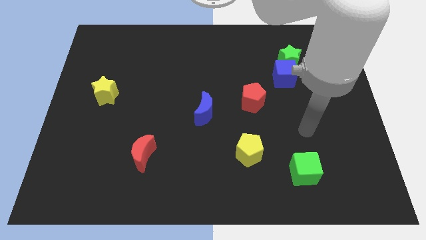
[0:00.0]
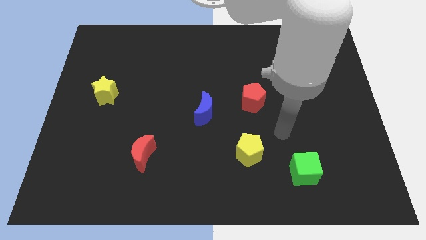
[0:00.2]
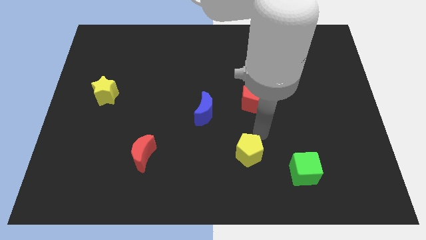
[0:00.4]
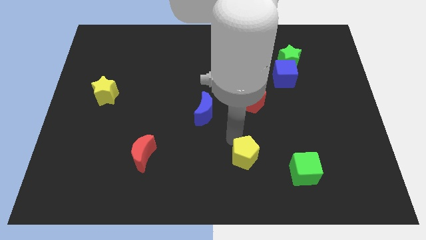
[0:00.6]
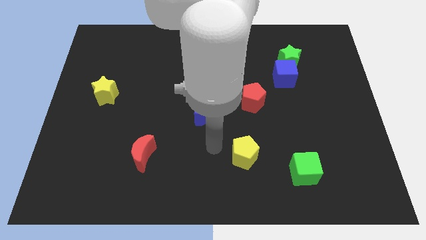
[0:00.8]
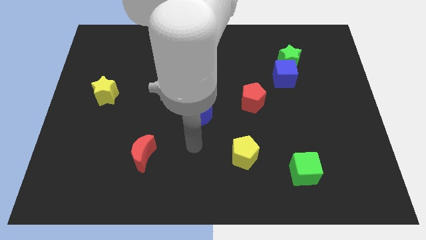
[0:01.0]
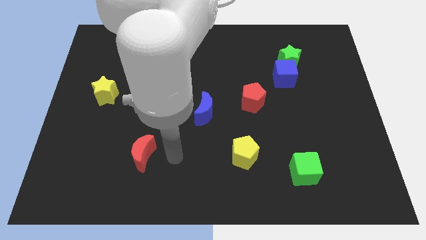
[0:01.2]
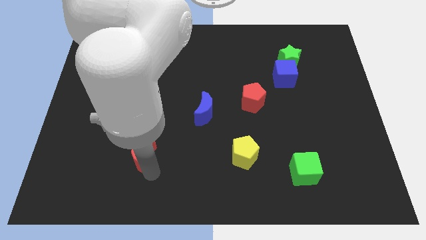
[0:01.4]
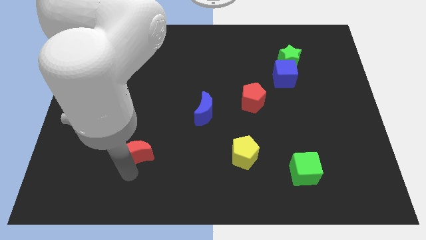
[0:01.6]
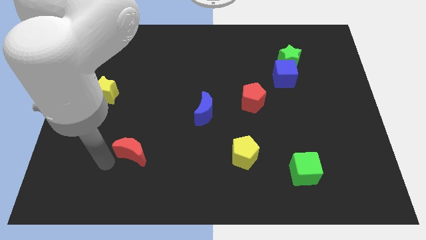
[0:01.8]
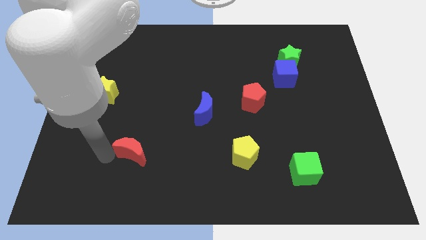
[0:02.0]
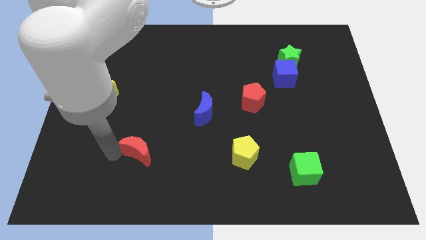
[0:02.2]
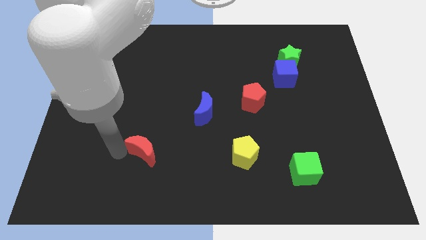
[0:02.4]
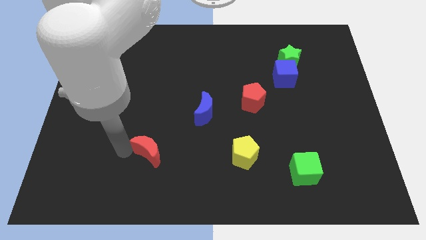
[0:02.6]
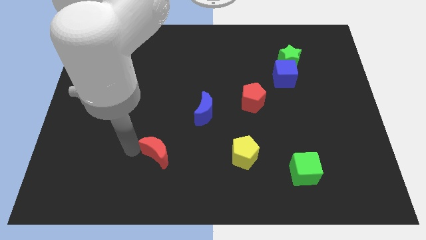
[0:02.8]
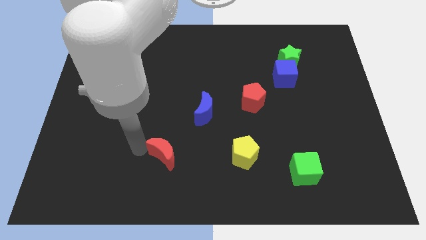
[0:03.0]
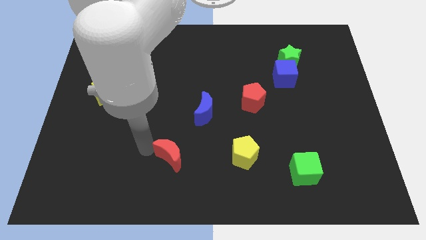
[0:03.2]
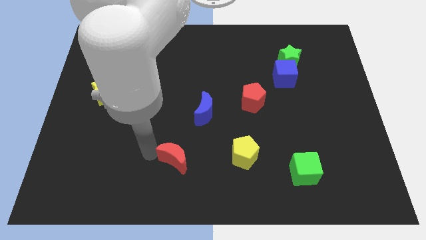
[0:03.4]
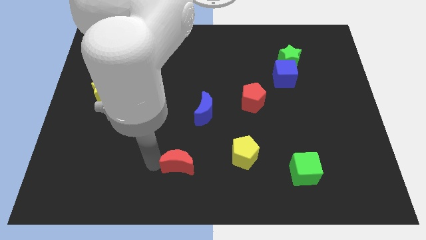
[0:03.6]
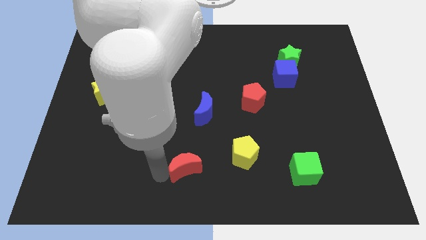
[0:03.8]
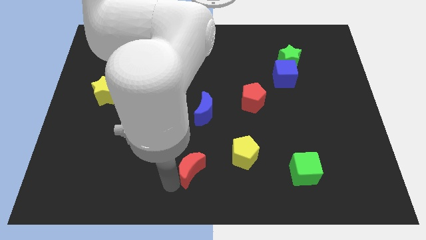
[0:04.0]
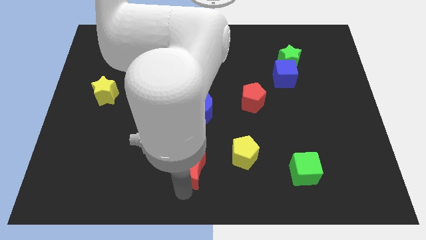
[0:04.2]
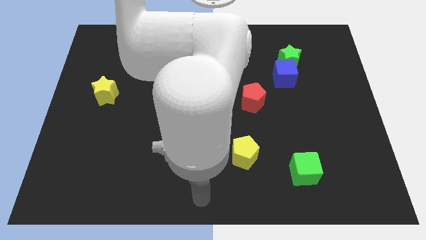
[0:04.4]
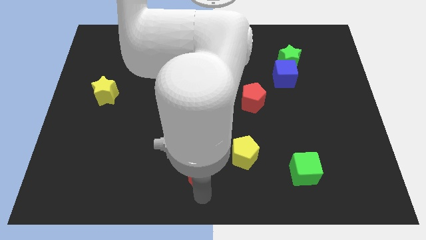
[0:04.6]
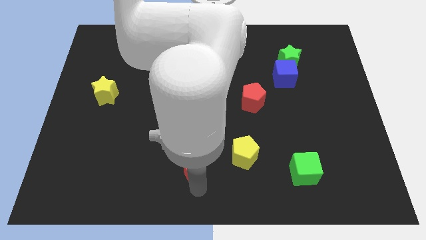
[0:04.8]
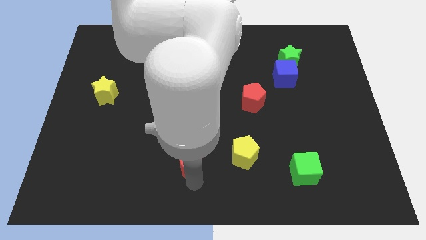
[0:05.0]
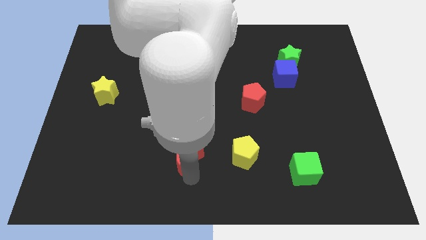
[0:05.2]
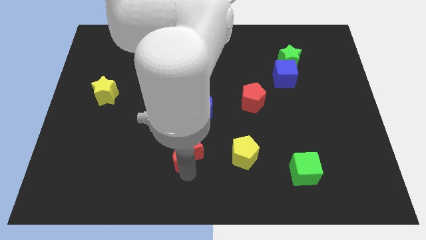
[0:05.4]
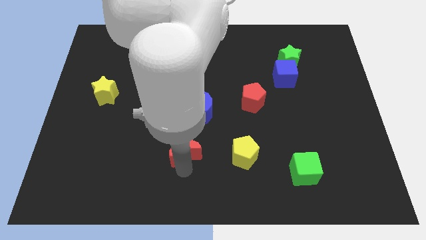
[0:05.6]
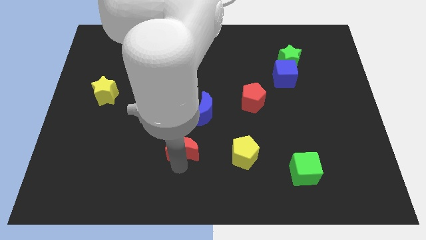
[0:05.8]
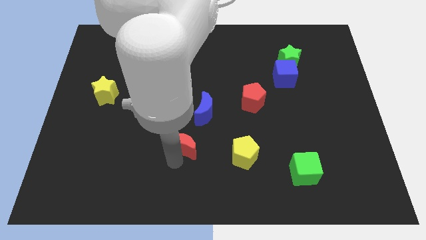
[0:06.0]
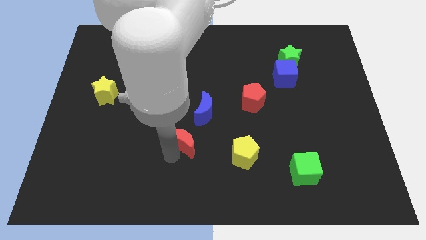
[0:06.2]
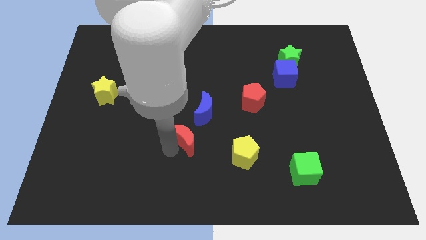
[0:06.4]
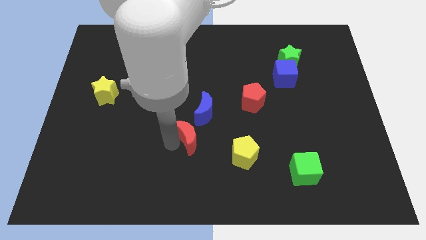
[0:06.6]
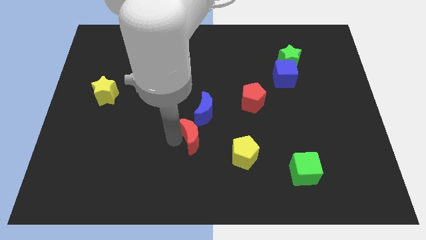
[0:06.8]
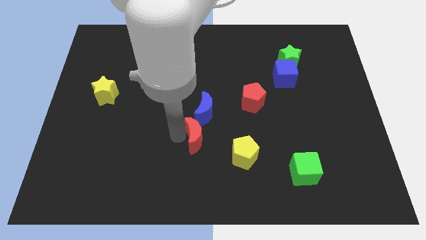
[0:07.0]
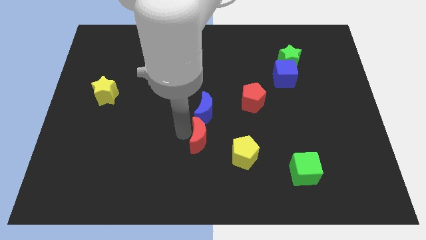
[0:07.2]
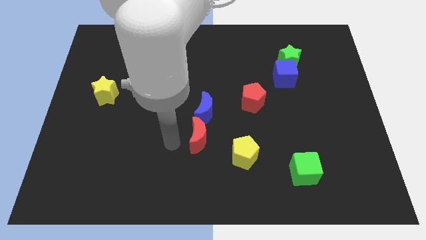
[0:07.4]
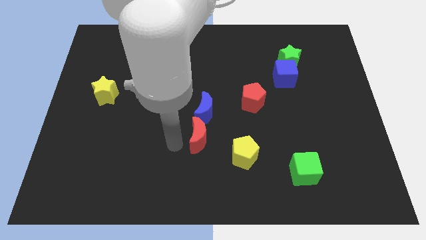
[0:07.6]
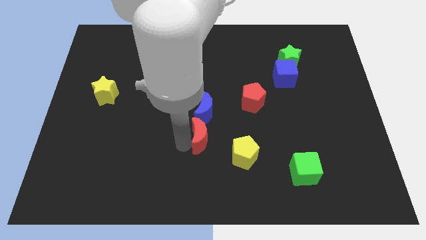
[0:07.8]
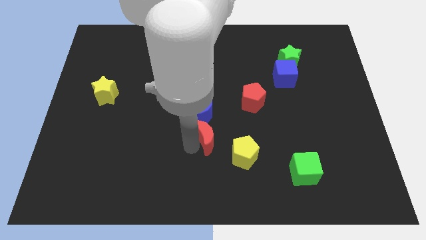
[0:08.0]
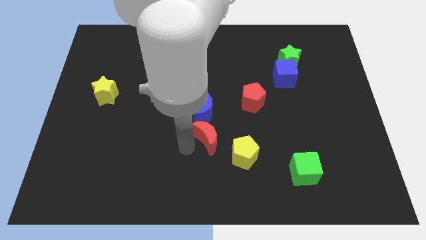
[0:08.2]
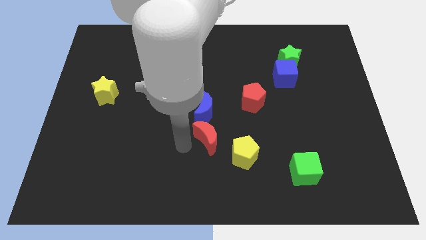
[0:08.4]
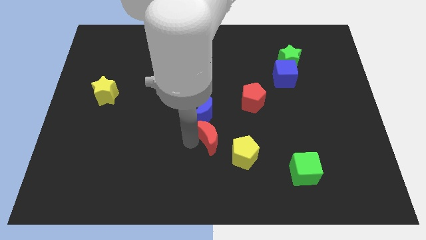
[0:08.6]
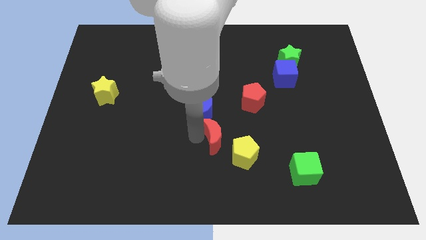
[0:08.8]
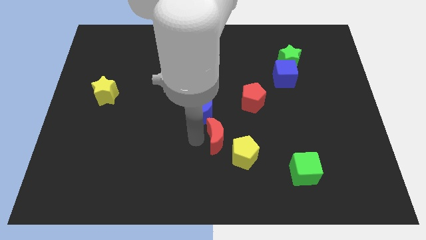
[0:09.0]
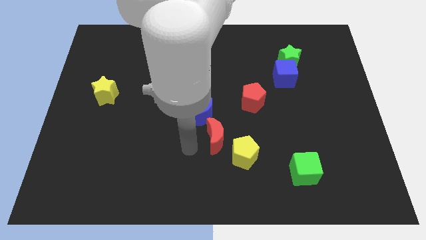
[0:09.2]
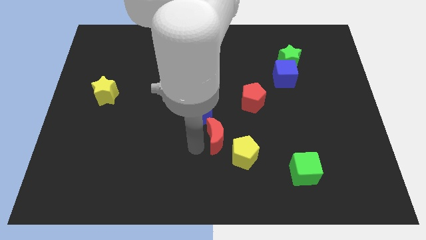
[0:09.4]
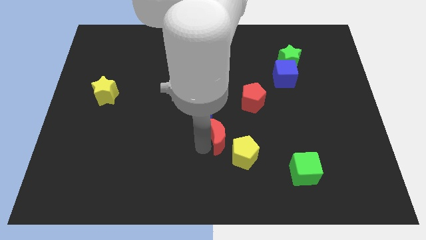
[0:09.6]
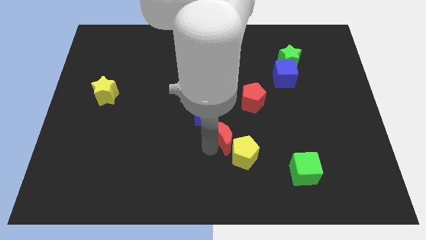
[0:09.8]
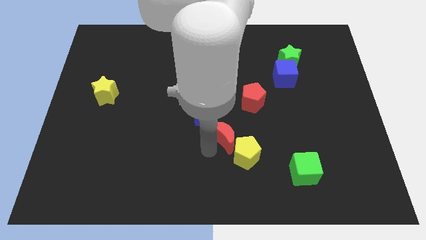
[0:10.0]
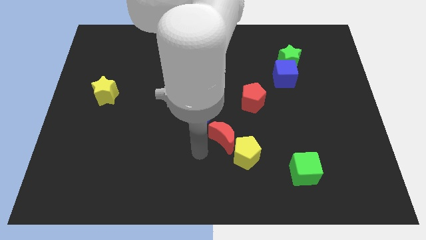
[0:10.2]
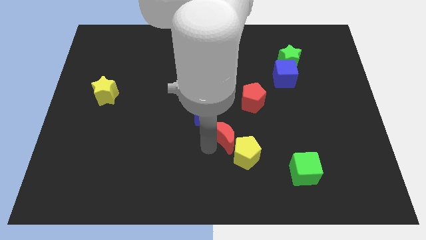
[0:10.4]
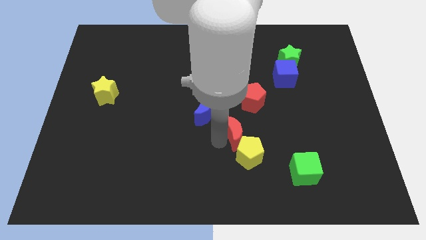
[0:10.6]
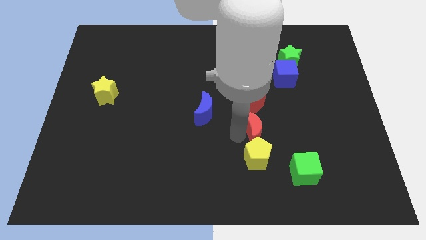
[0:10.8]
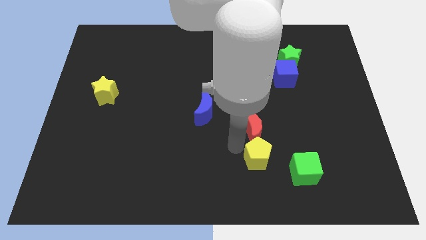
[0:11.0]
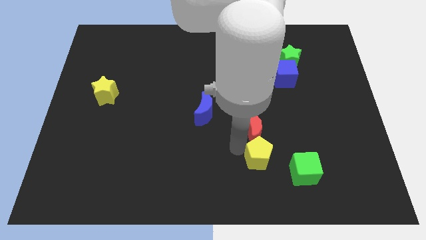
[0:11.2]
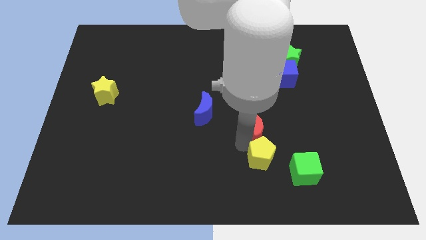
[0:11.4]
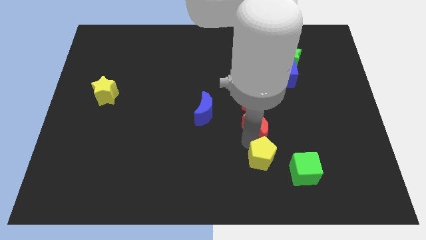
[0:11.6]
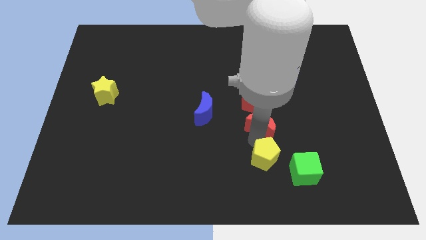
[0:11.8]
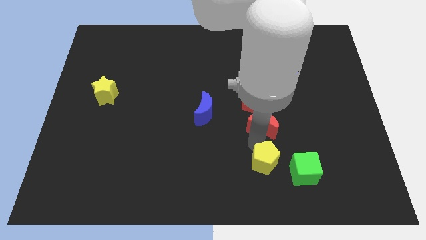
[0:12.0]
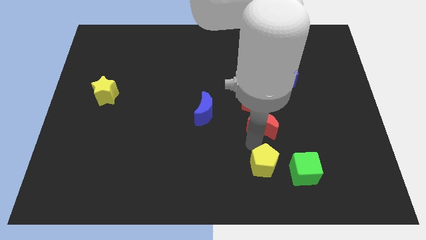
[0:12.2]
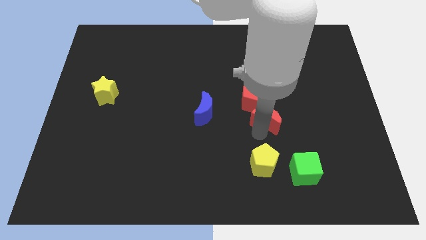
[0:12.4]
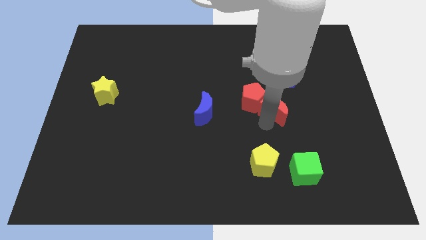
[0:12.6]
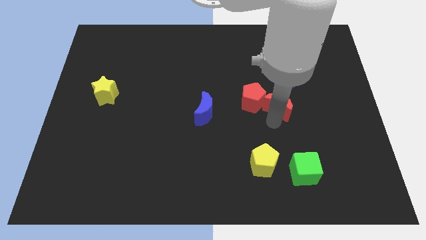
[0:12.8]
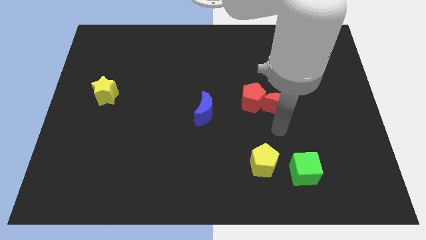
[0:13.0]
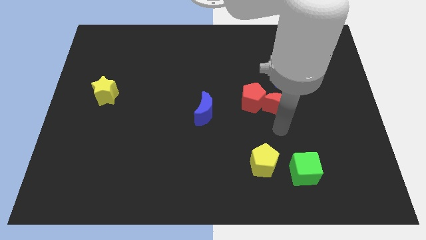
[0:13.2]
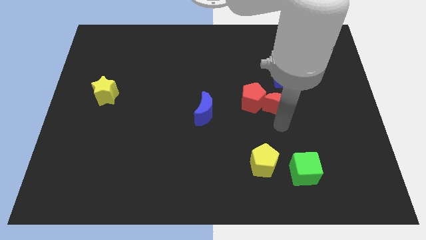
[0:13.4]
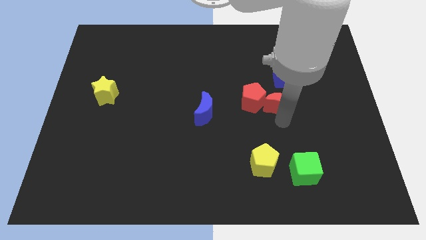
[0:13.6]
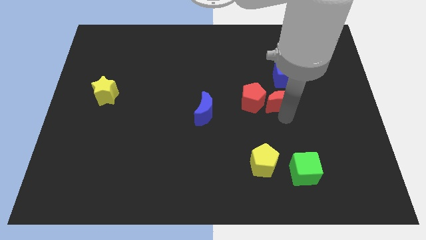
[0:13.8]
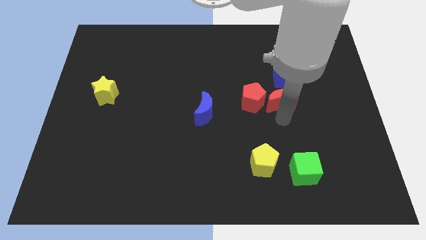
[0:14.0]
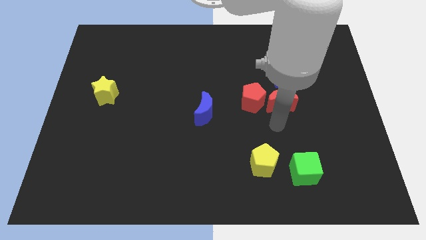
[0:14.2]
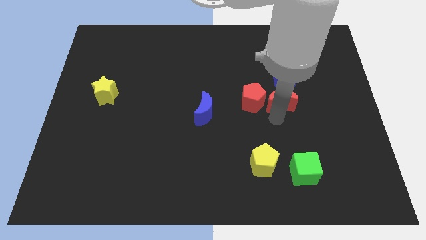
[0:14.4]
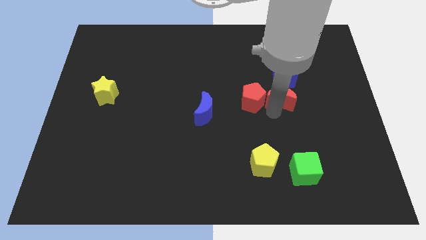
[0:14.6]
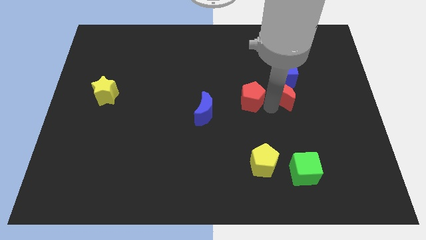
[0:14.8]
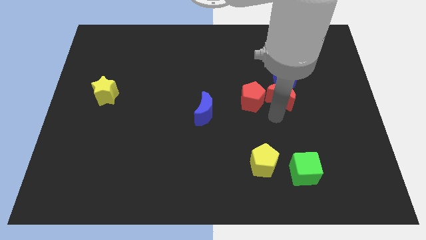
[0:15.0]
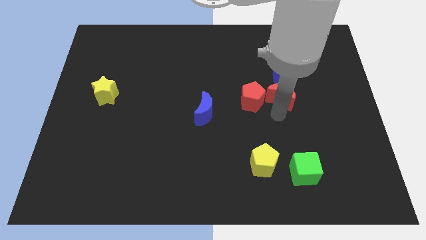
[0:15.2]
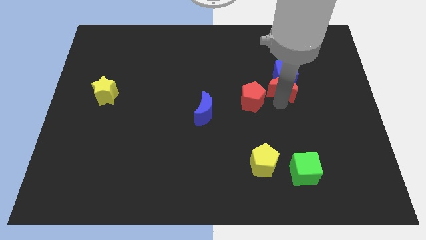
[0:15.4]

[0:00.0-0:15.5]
put the red moon towards the blue cube
